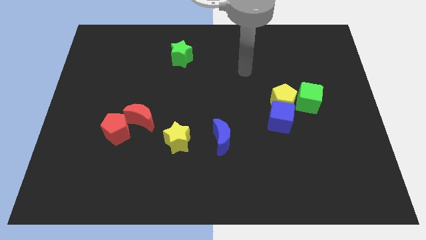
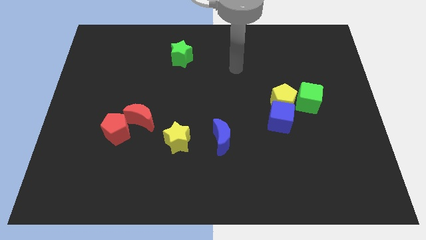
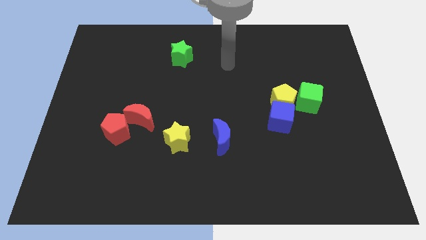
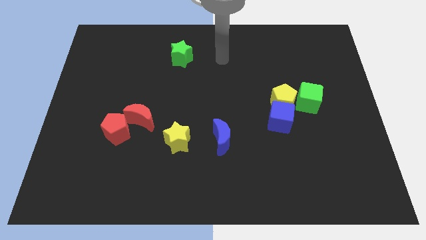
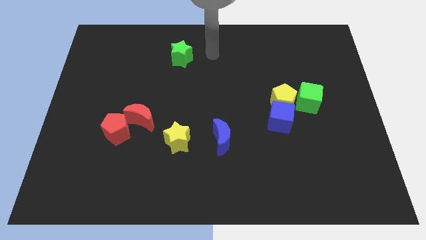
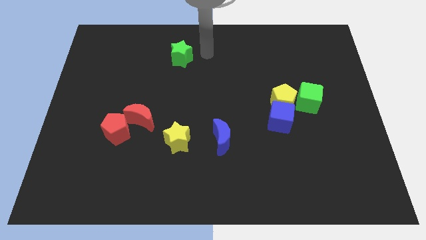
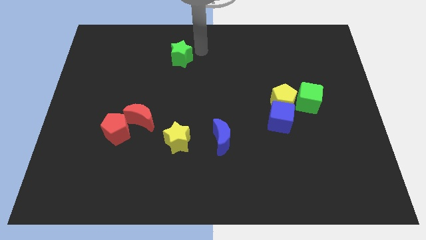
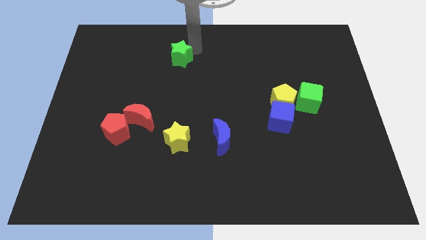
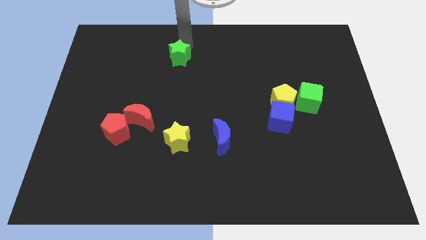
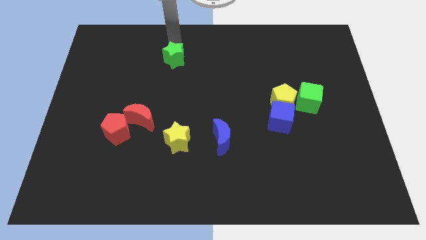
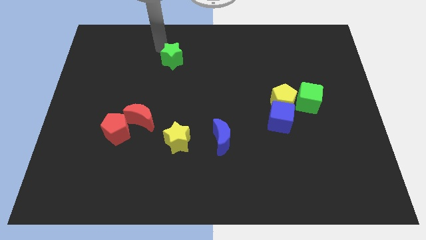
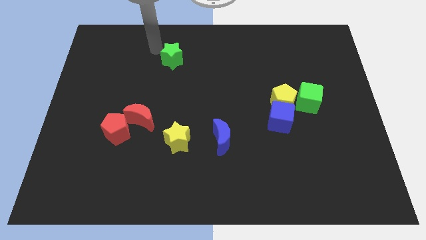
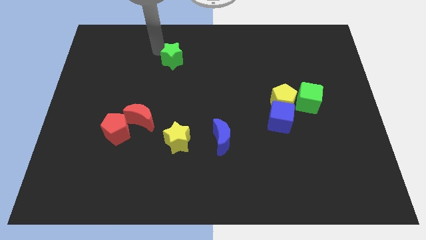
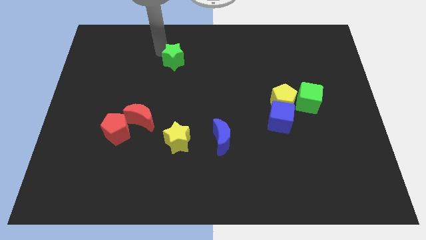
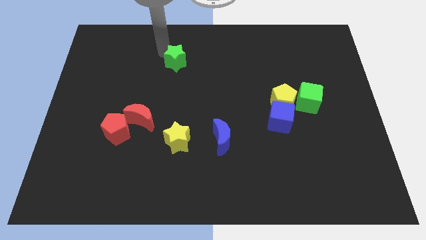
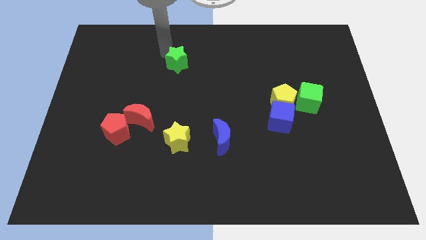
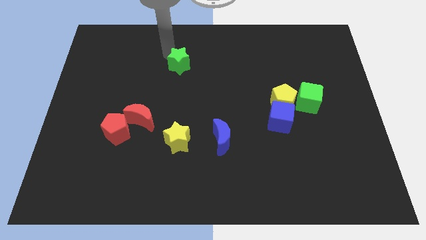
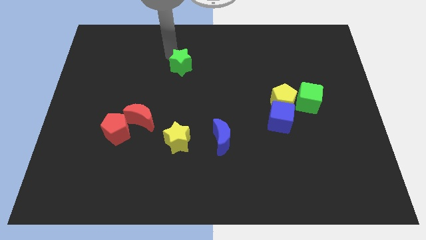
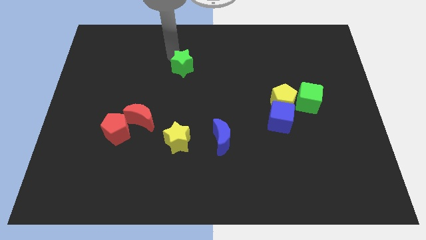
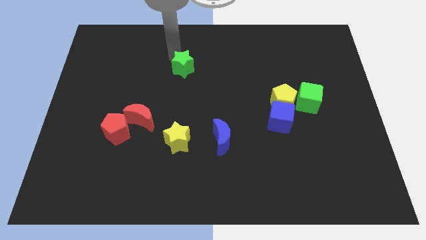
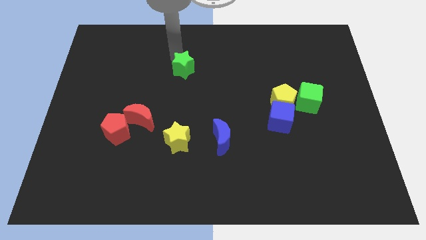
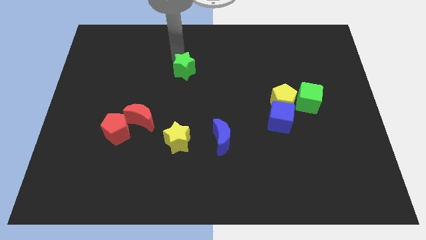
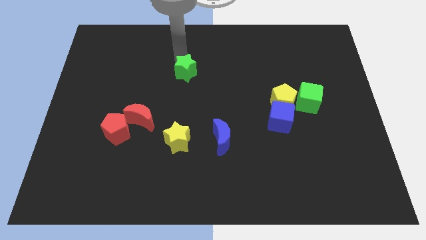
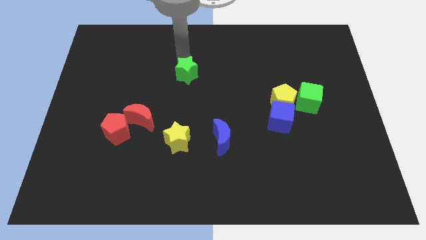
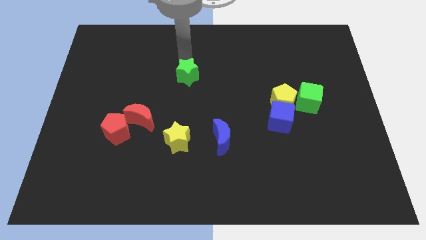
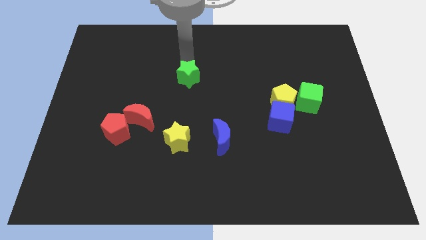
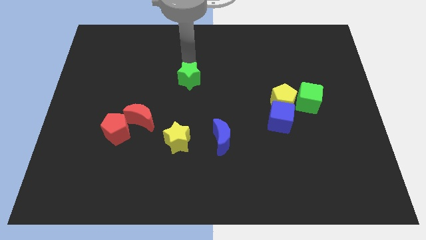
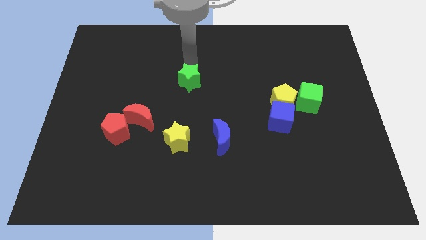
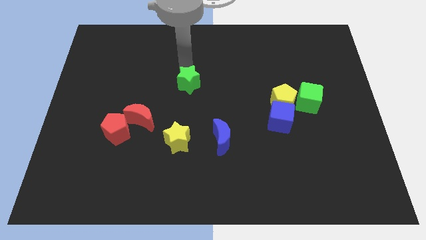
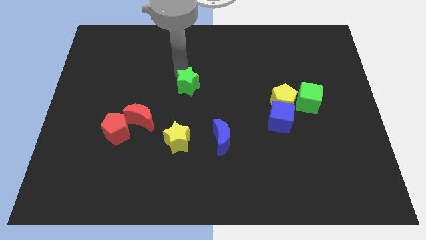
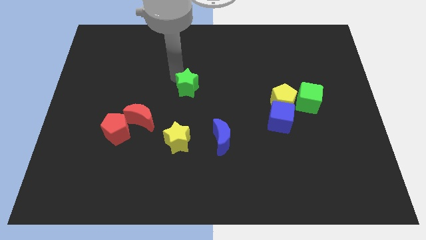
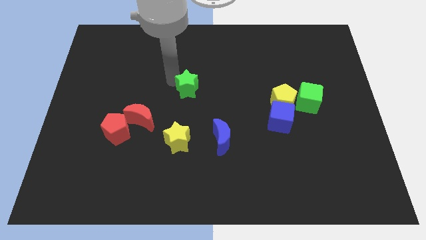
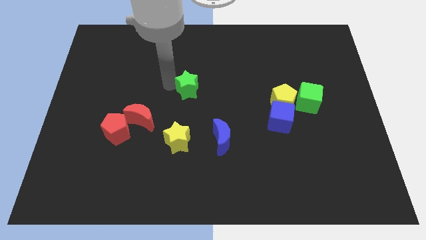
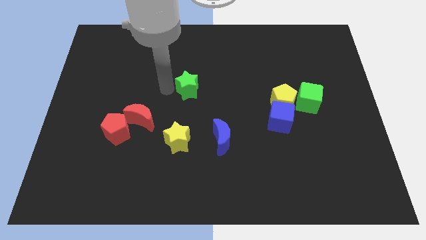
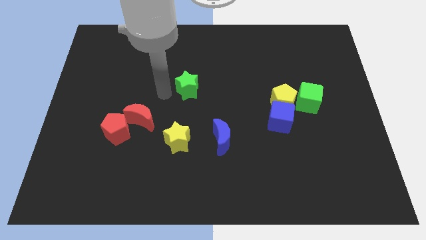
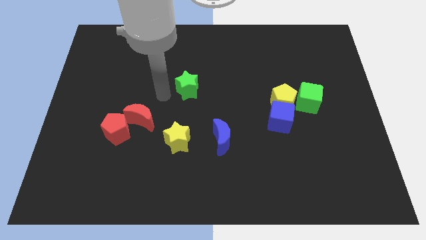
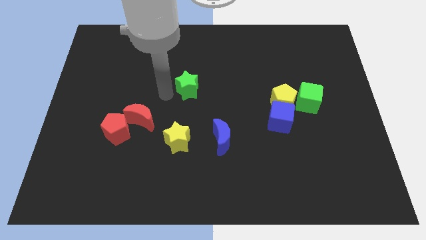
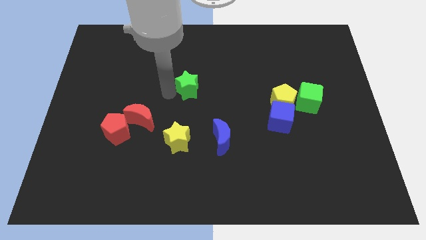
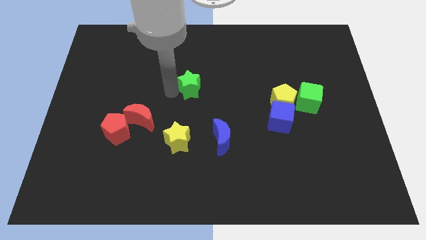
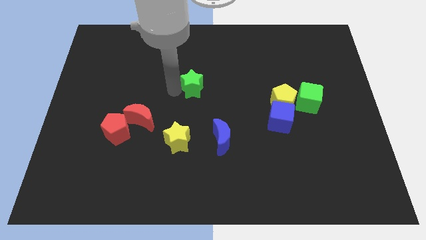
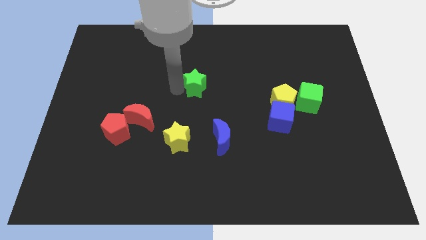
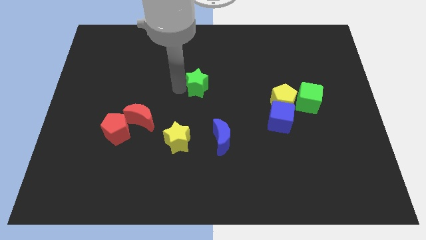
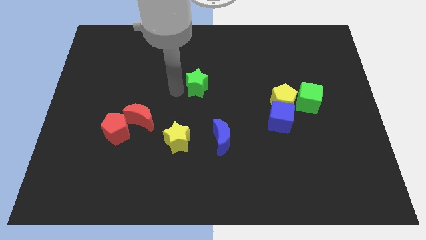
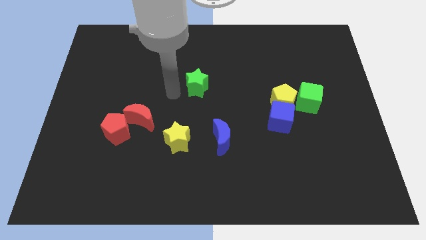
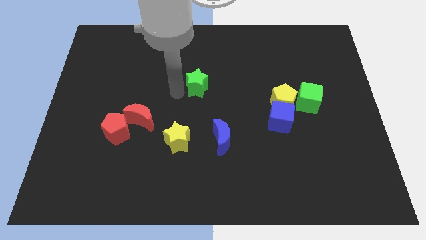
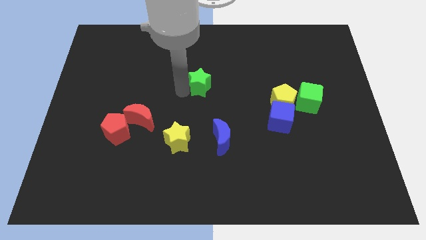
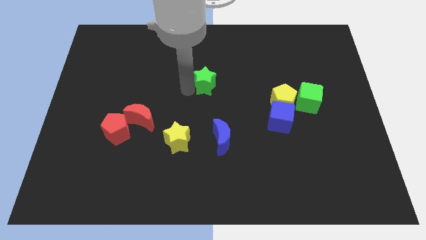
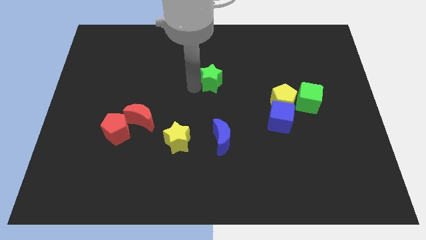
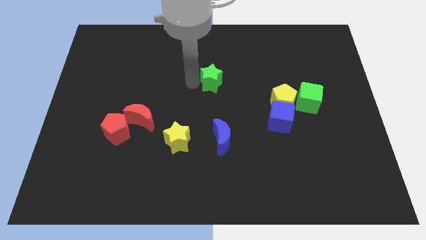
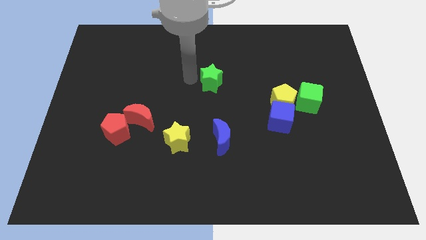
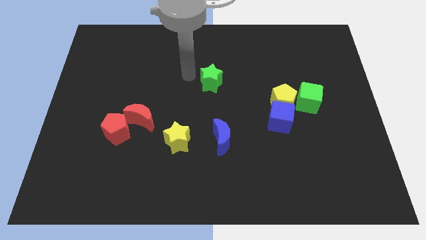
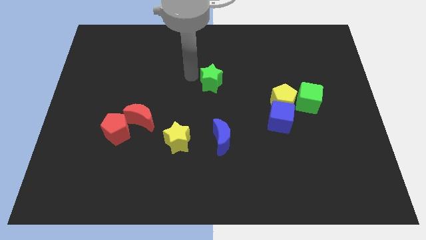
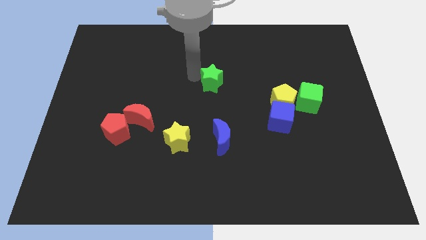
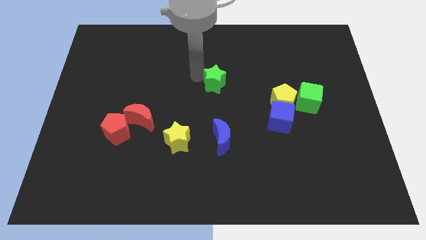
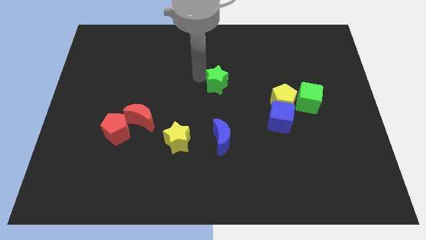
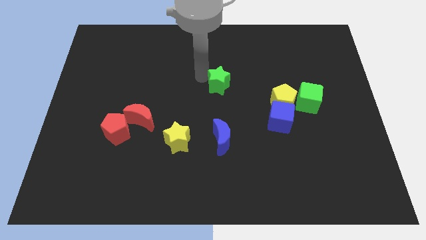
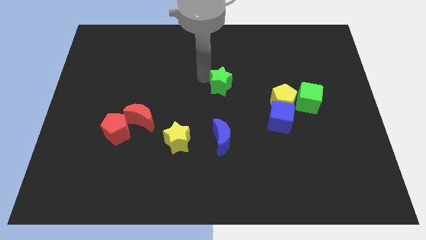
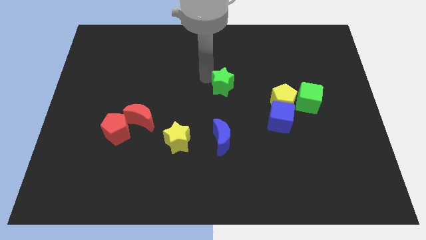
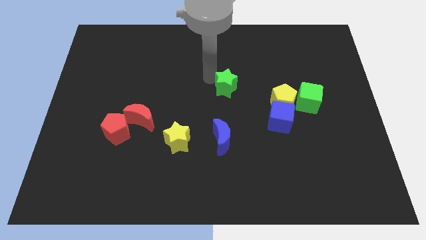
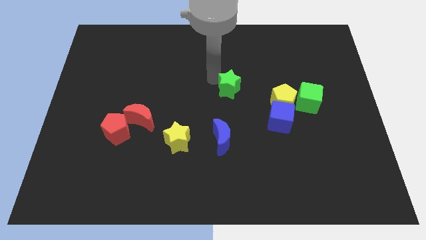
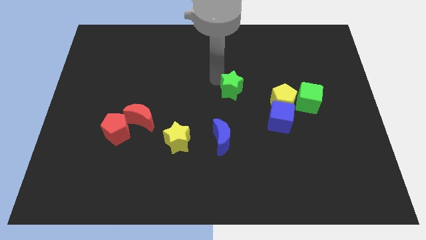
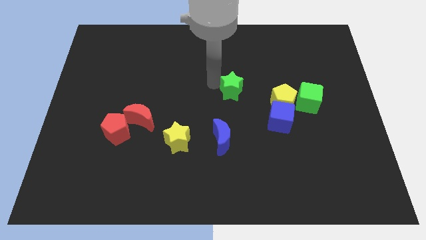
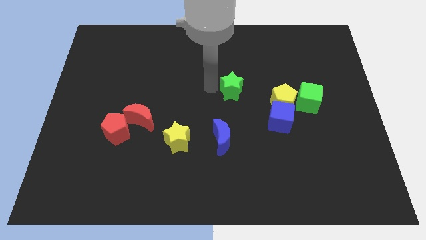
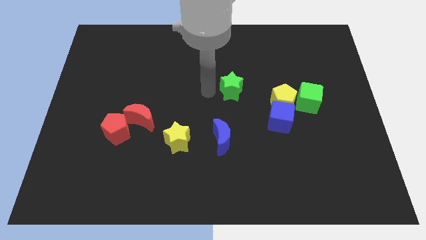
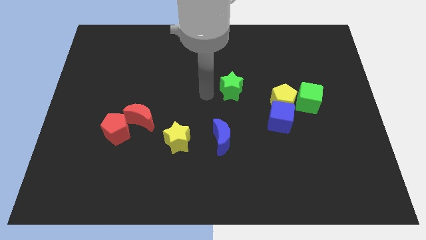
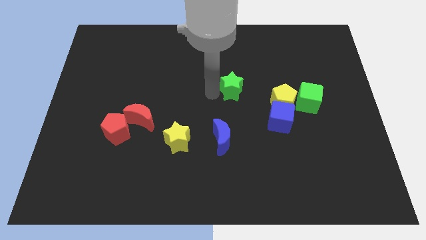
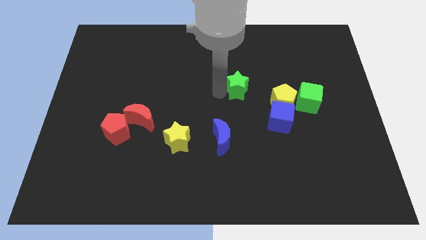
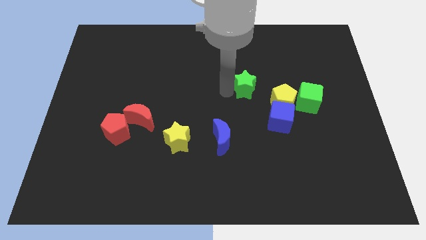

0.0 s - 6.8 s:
slide the green star to the top left of the yellow pentagon
